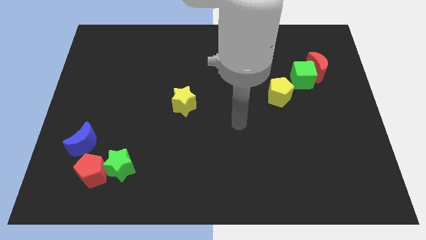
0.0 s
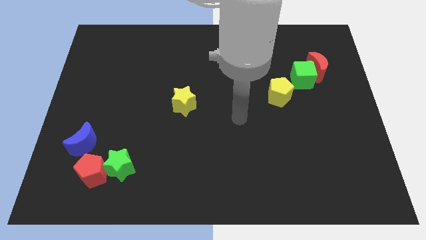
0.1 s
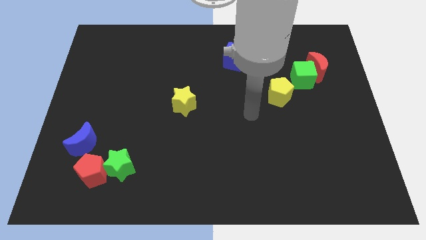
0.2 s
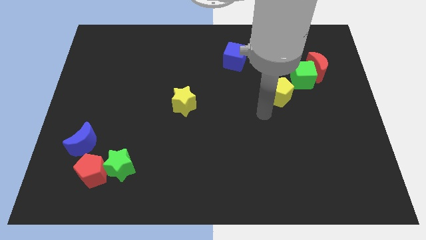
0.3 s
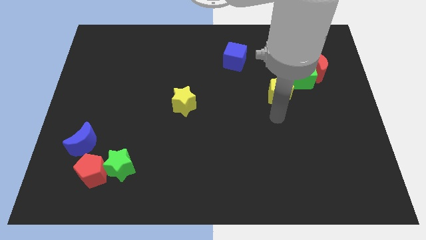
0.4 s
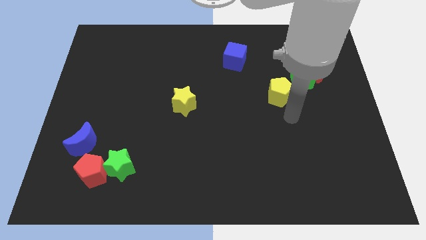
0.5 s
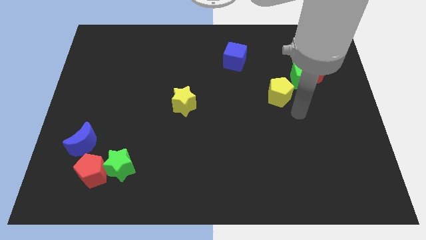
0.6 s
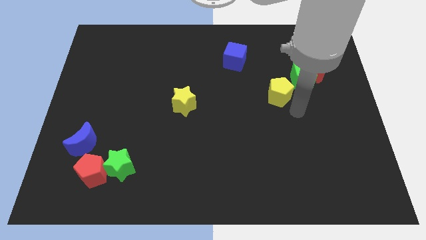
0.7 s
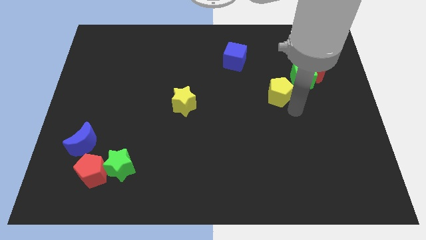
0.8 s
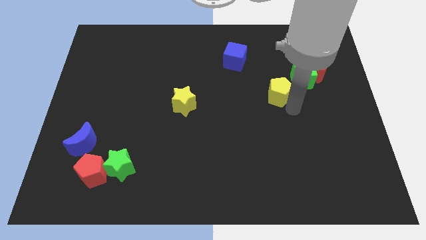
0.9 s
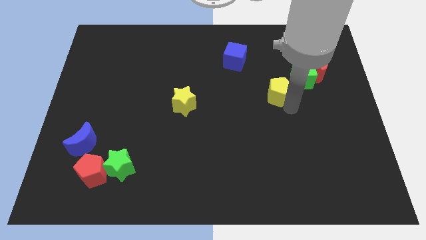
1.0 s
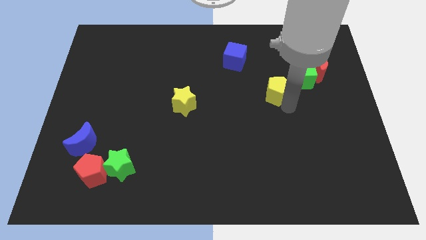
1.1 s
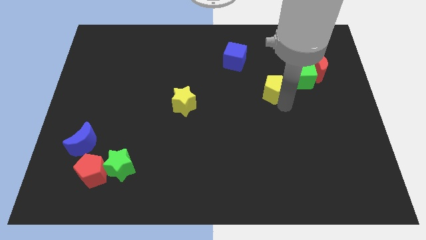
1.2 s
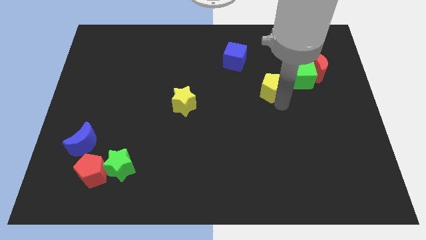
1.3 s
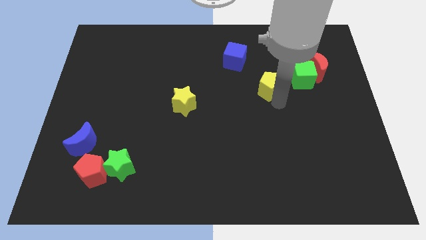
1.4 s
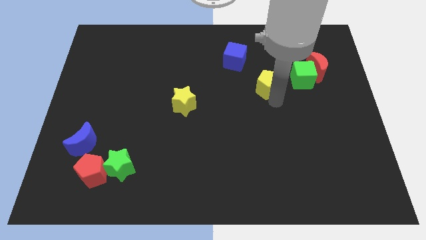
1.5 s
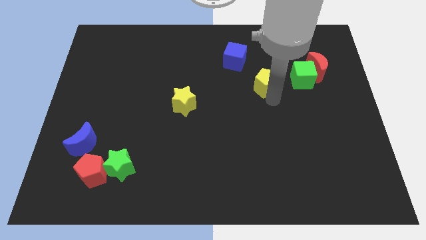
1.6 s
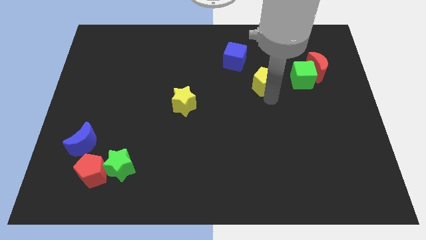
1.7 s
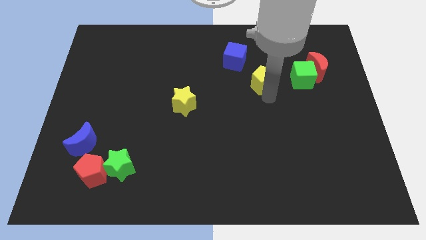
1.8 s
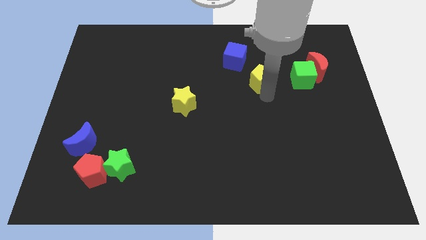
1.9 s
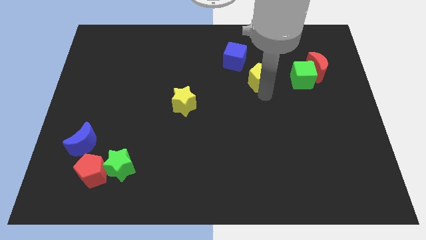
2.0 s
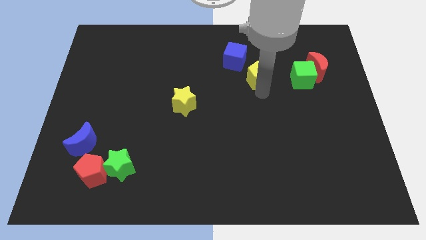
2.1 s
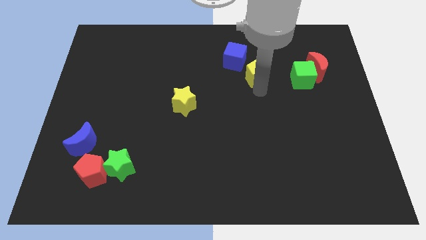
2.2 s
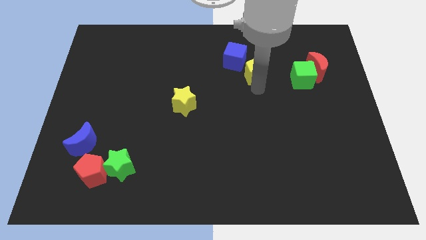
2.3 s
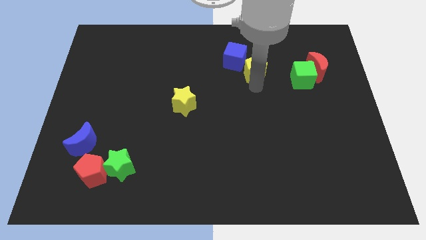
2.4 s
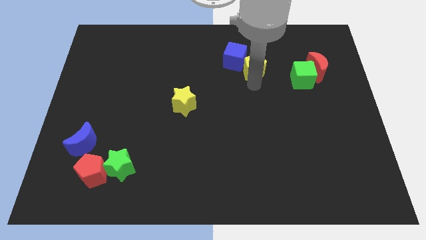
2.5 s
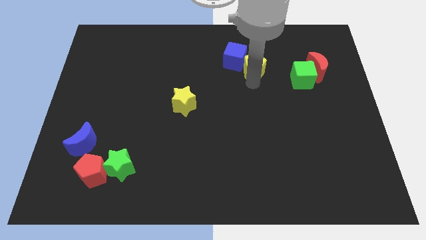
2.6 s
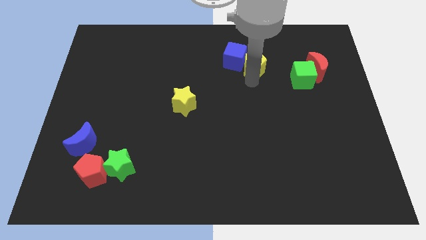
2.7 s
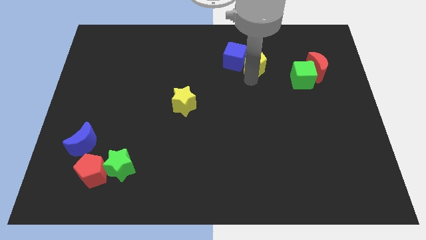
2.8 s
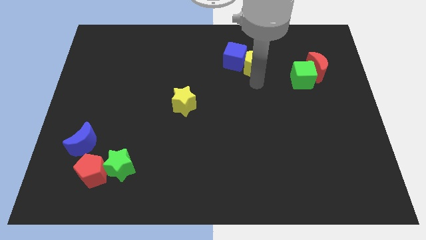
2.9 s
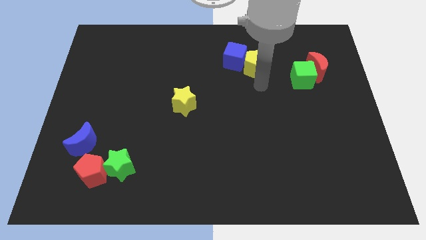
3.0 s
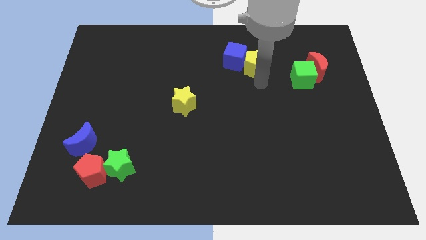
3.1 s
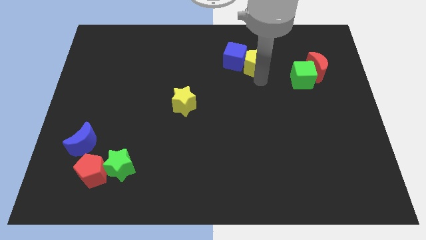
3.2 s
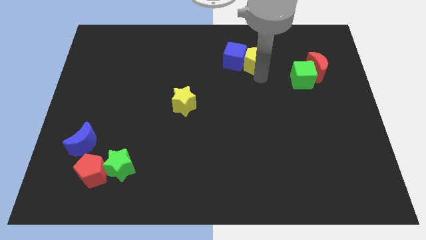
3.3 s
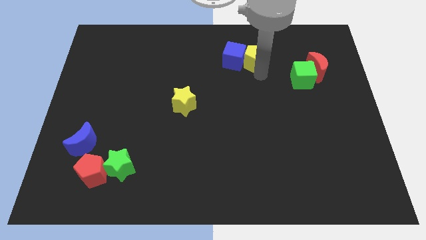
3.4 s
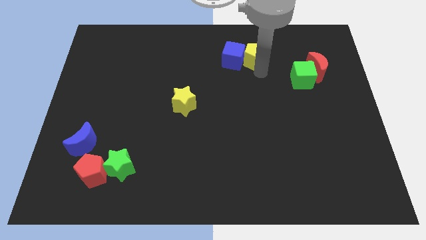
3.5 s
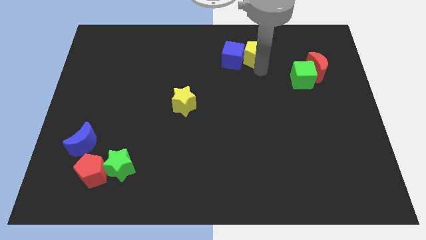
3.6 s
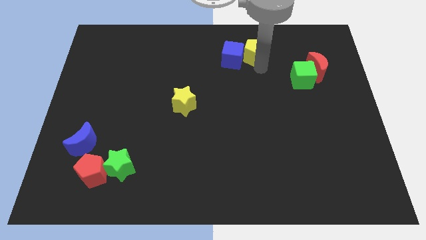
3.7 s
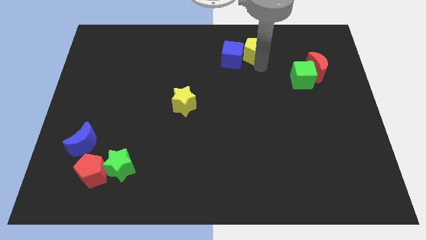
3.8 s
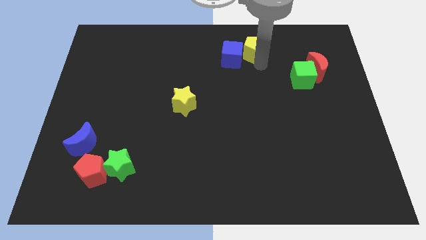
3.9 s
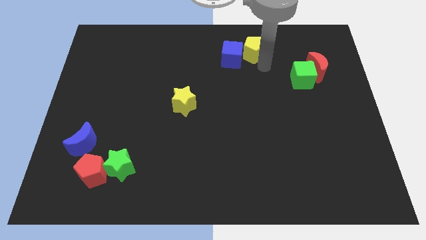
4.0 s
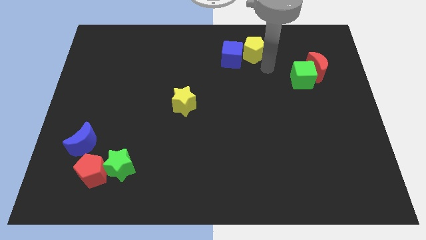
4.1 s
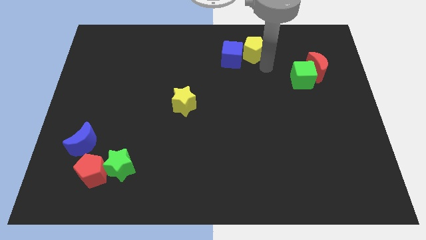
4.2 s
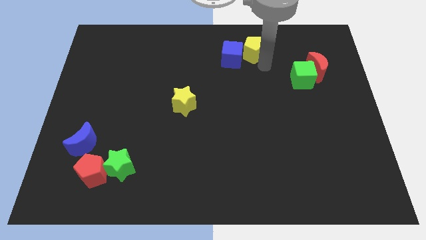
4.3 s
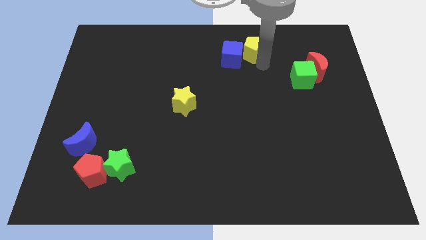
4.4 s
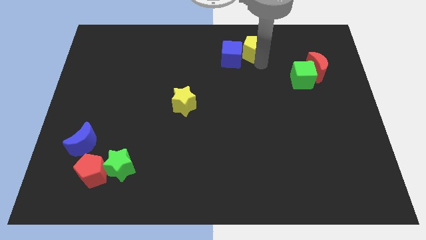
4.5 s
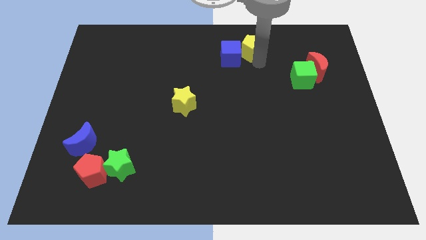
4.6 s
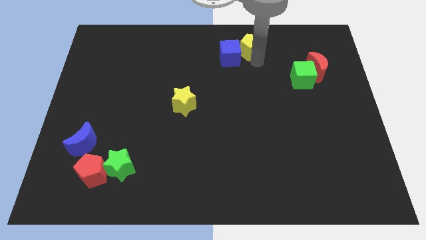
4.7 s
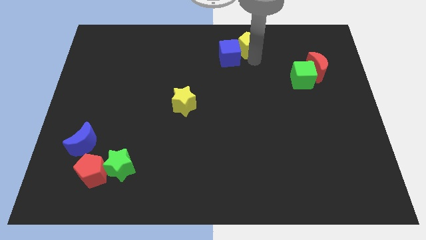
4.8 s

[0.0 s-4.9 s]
slide the yellow pentagon to the towards your base
